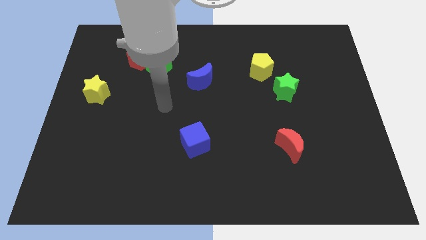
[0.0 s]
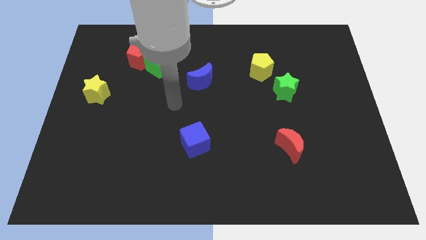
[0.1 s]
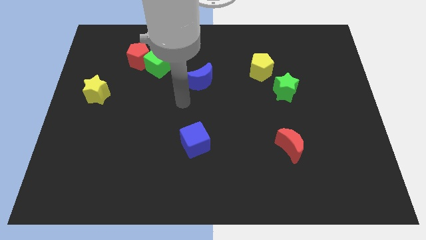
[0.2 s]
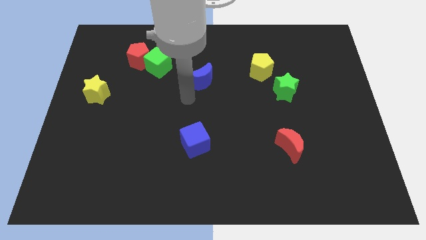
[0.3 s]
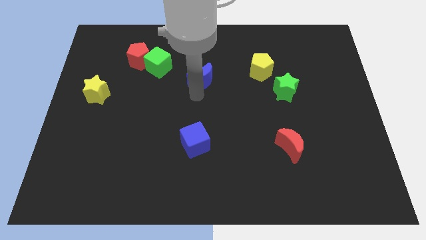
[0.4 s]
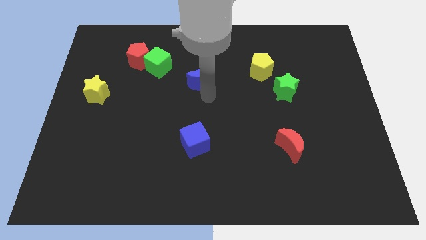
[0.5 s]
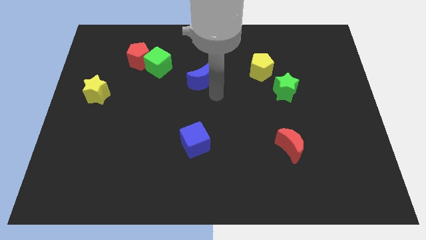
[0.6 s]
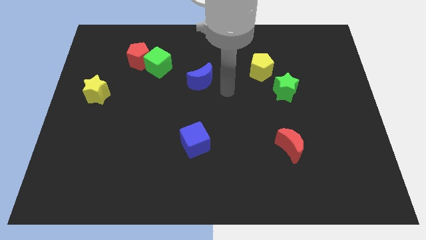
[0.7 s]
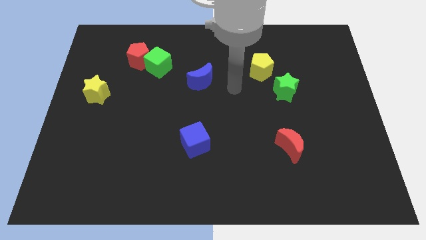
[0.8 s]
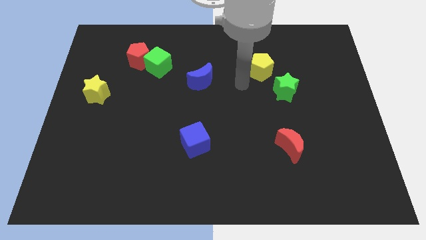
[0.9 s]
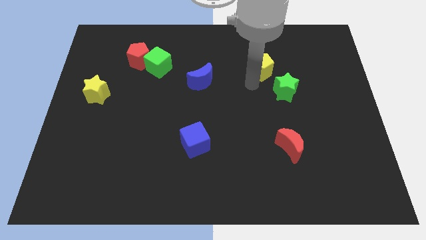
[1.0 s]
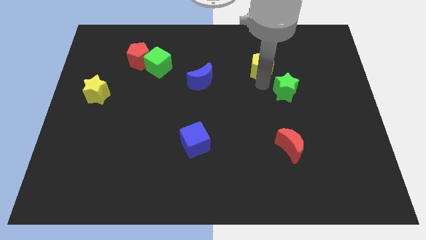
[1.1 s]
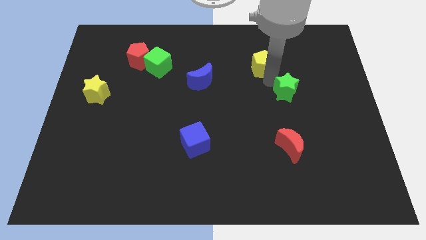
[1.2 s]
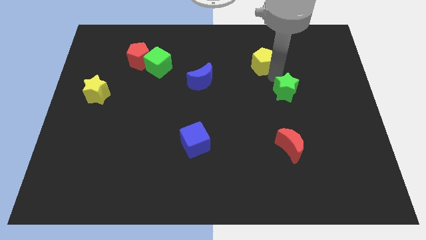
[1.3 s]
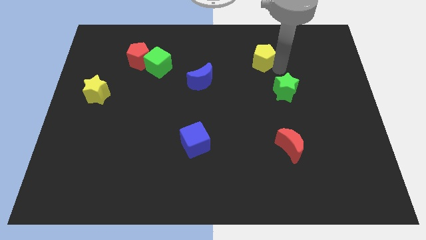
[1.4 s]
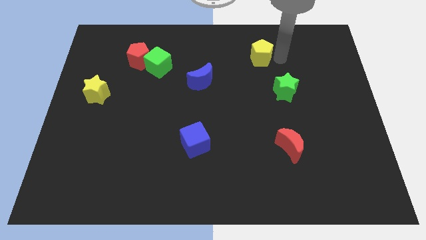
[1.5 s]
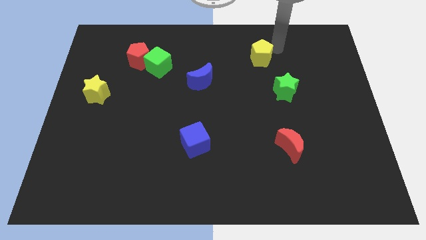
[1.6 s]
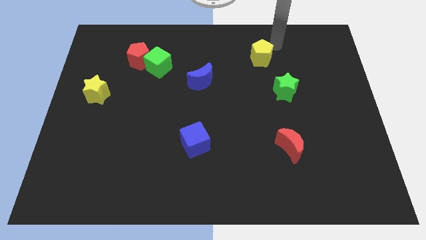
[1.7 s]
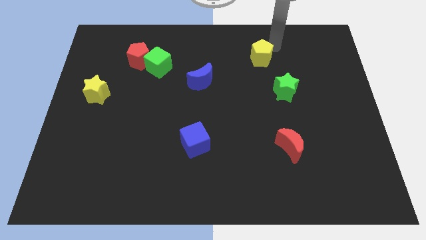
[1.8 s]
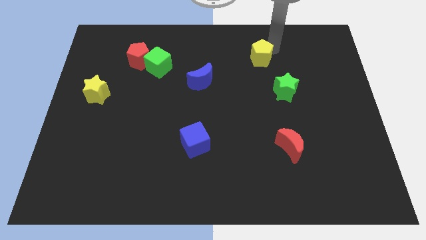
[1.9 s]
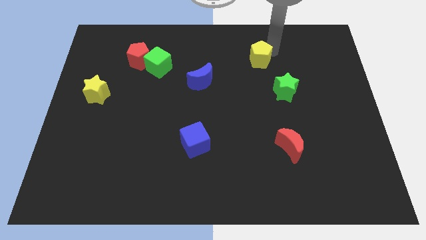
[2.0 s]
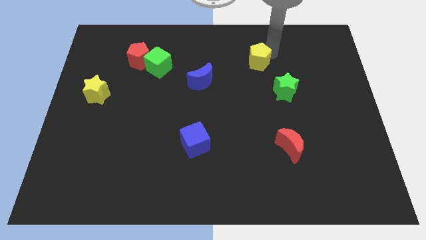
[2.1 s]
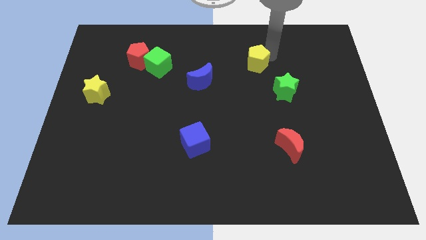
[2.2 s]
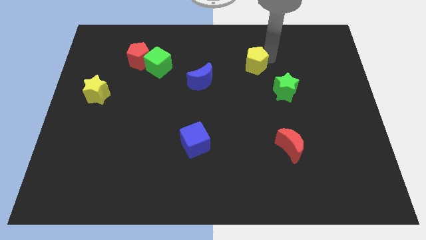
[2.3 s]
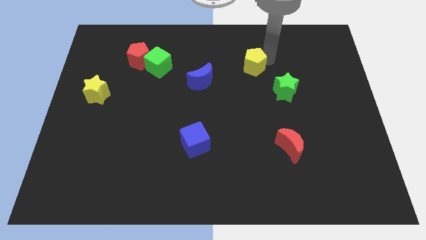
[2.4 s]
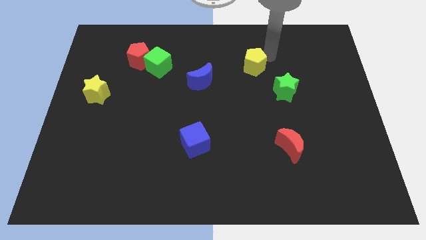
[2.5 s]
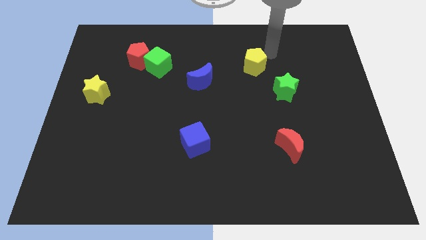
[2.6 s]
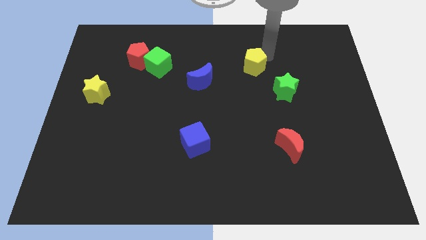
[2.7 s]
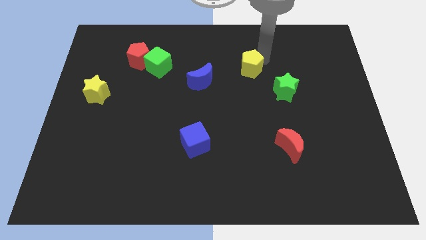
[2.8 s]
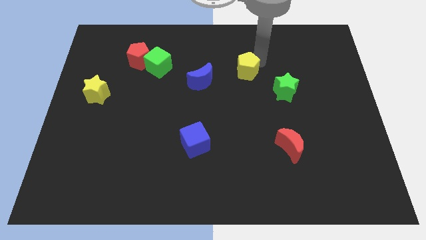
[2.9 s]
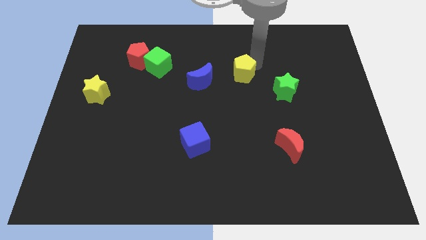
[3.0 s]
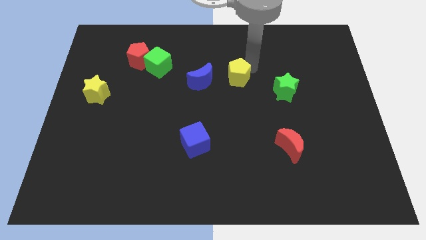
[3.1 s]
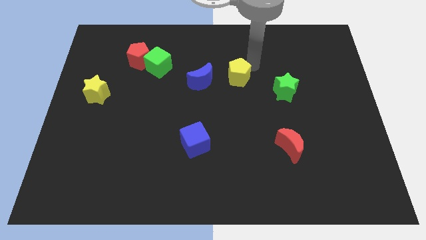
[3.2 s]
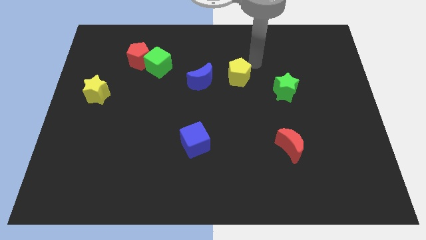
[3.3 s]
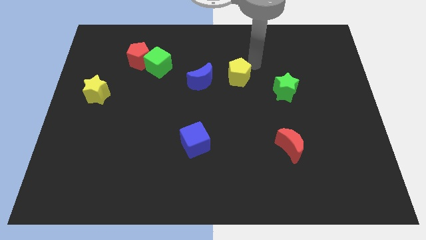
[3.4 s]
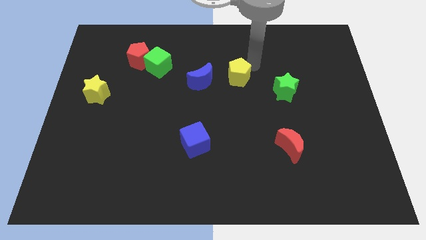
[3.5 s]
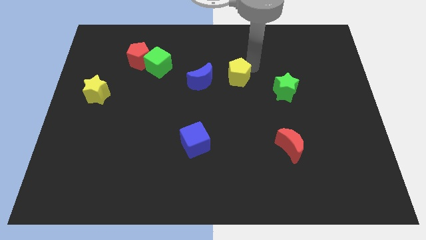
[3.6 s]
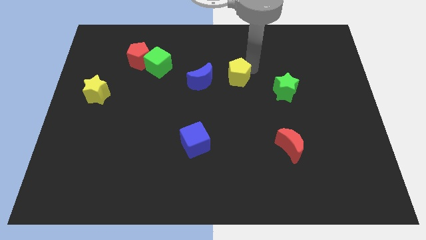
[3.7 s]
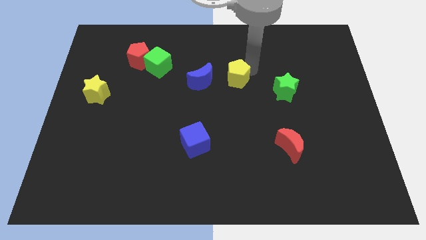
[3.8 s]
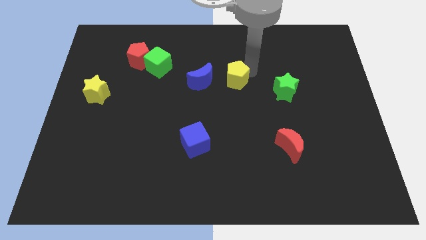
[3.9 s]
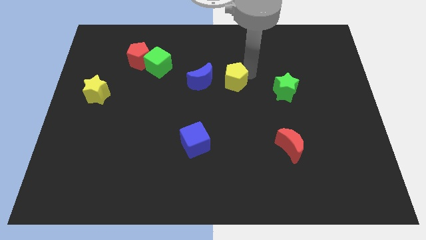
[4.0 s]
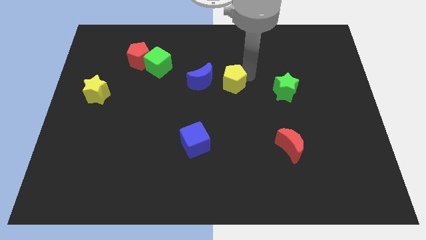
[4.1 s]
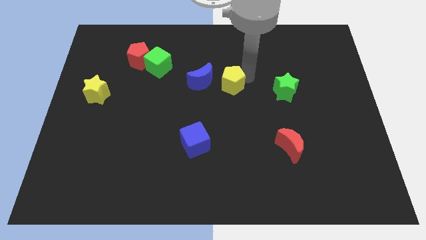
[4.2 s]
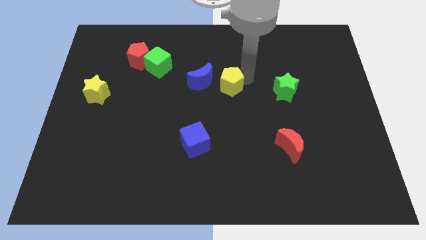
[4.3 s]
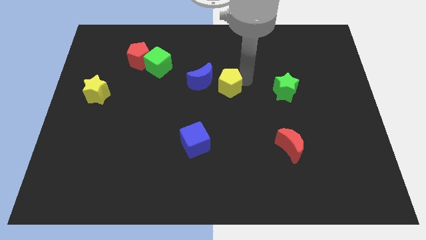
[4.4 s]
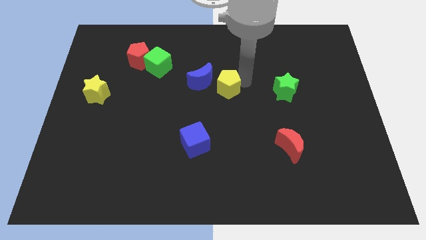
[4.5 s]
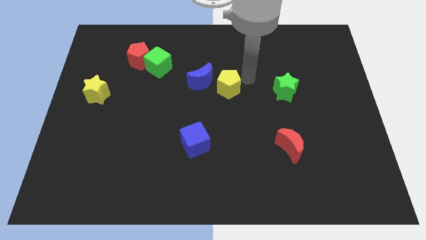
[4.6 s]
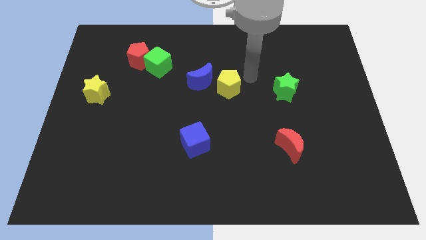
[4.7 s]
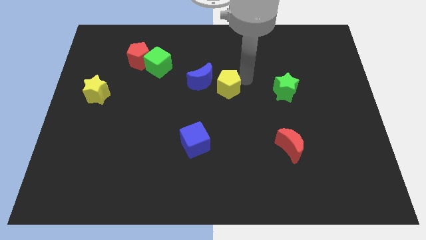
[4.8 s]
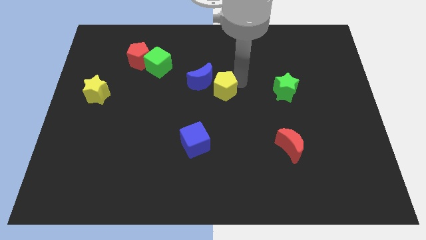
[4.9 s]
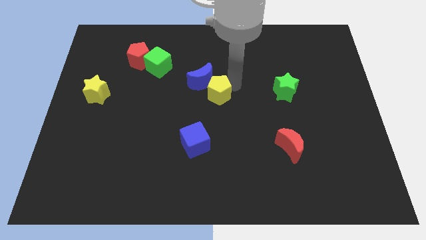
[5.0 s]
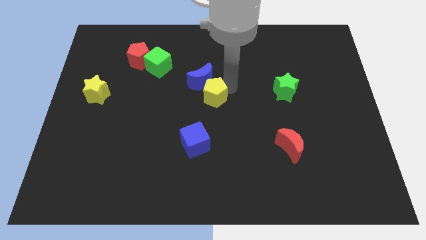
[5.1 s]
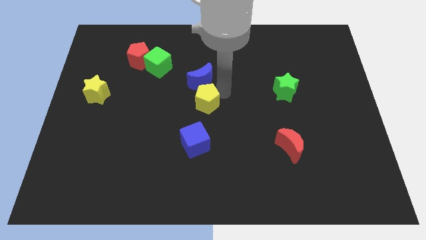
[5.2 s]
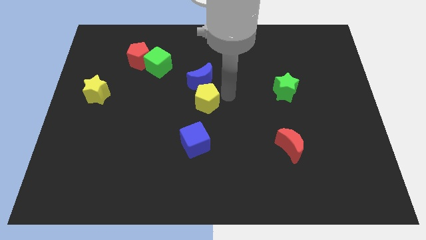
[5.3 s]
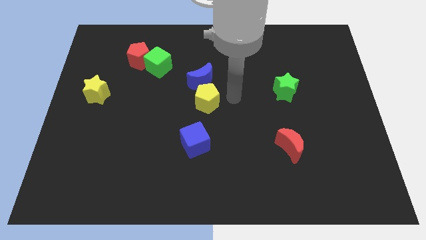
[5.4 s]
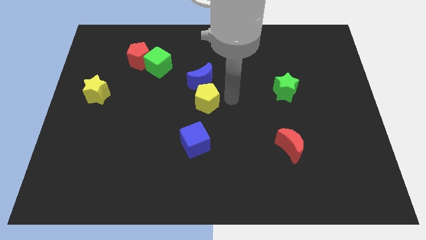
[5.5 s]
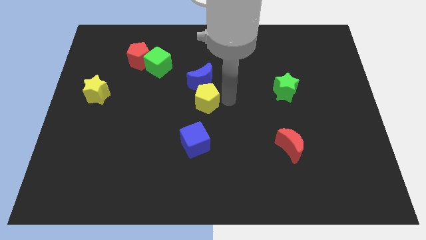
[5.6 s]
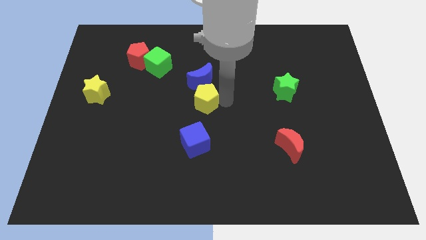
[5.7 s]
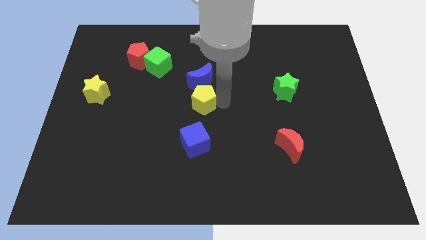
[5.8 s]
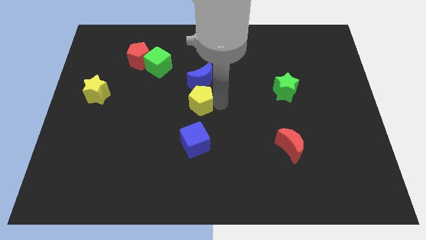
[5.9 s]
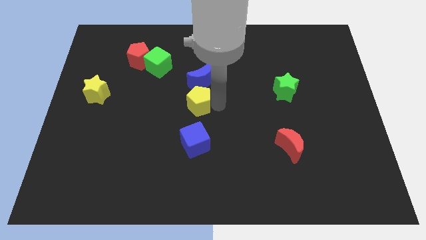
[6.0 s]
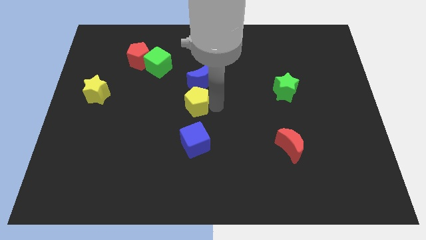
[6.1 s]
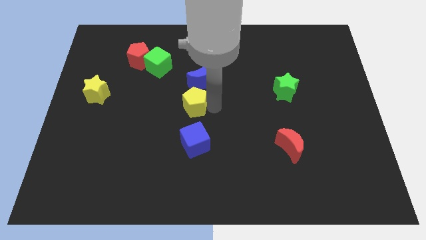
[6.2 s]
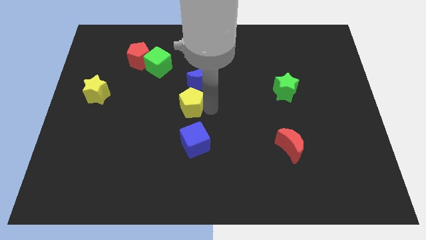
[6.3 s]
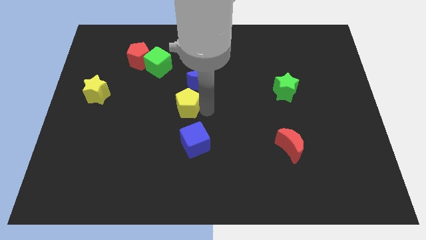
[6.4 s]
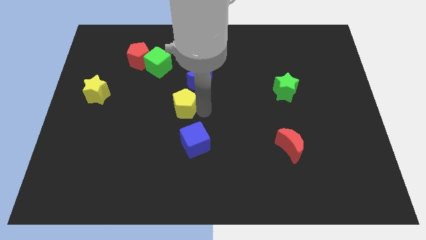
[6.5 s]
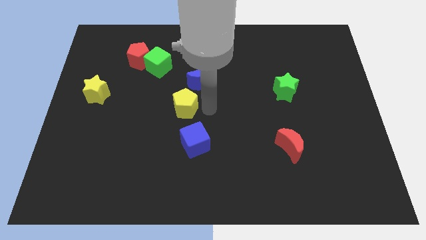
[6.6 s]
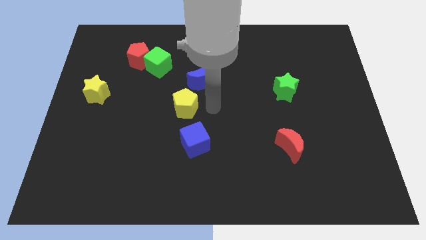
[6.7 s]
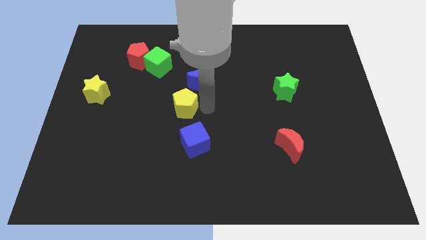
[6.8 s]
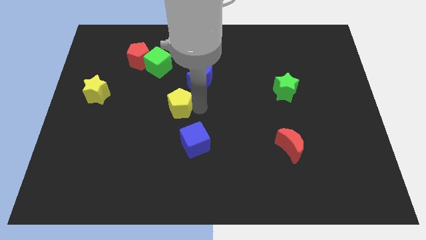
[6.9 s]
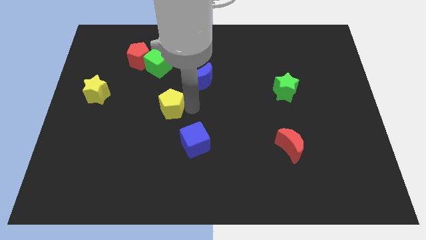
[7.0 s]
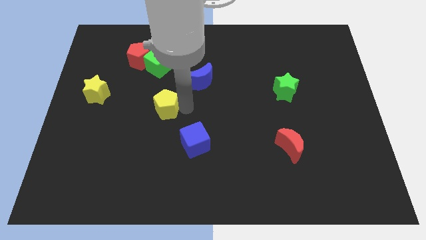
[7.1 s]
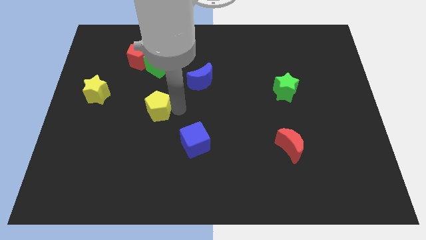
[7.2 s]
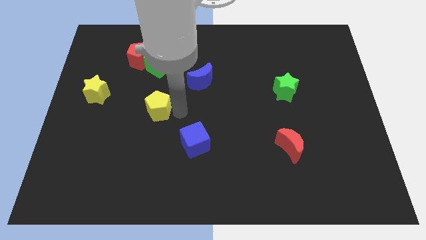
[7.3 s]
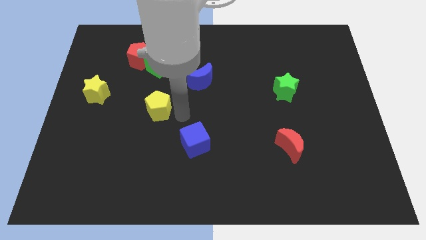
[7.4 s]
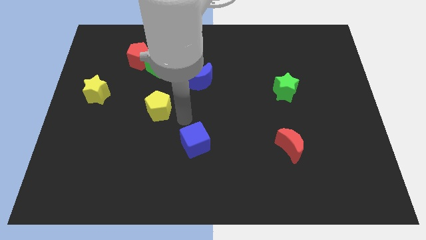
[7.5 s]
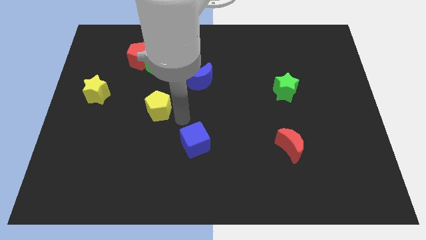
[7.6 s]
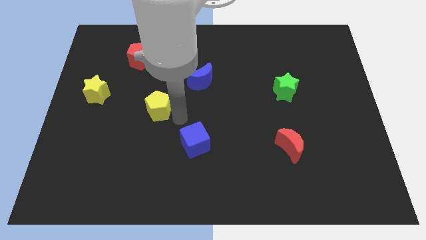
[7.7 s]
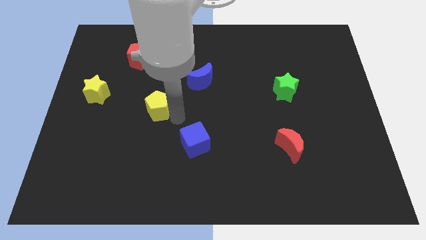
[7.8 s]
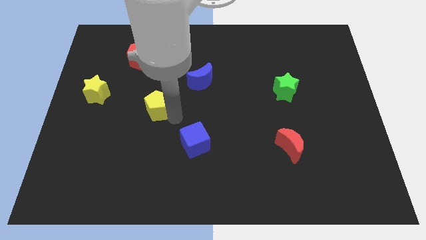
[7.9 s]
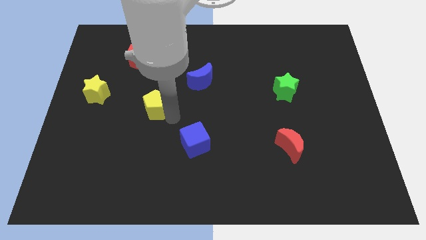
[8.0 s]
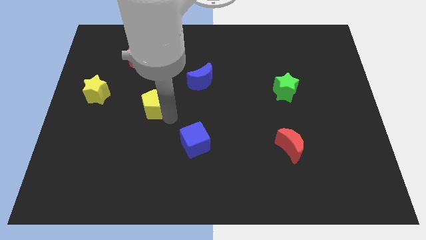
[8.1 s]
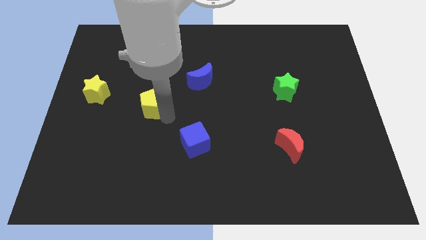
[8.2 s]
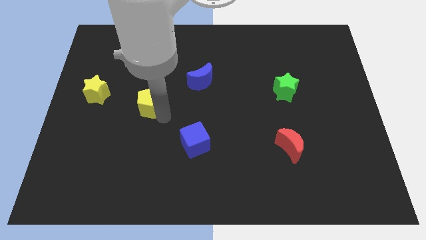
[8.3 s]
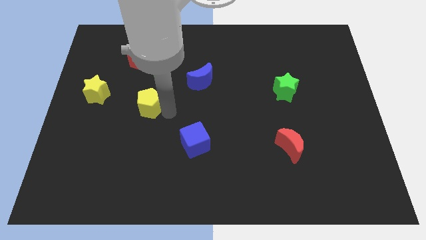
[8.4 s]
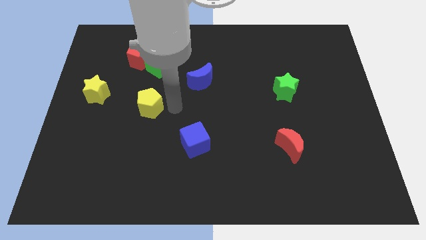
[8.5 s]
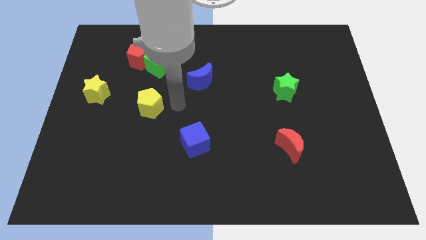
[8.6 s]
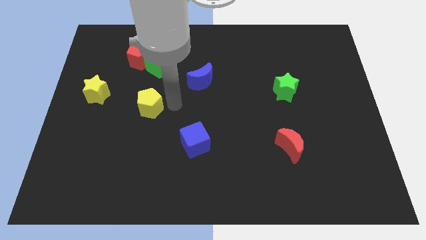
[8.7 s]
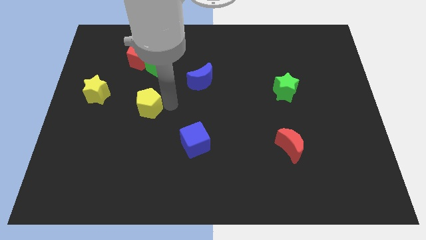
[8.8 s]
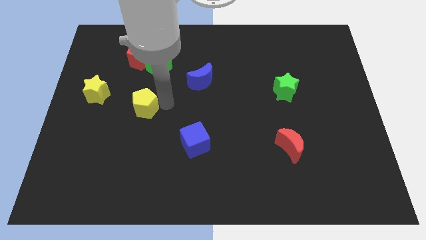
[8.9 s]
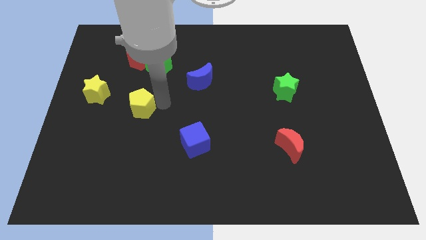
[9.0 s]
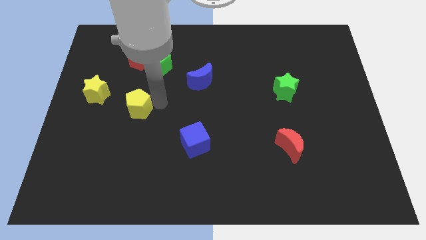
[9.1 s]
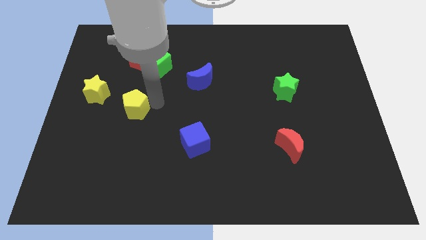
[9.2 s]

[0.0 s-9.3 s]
move the yellow pentagon to the bottom right side of the yellow star
